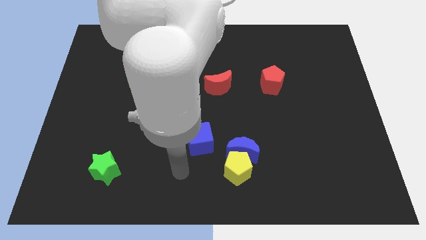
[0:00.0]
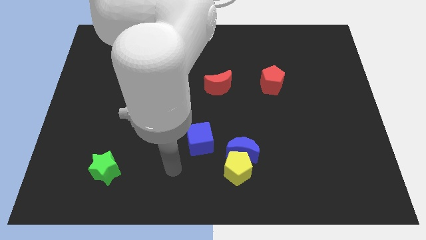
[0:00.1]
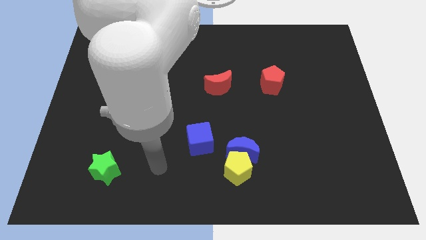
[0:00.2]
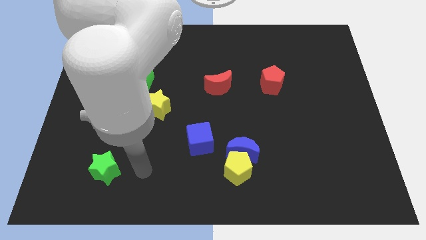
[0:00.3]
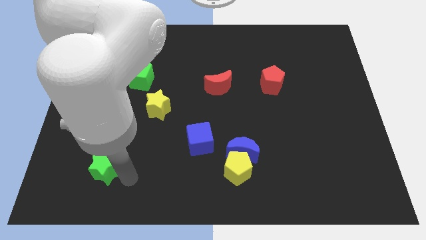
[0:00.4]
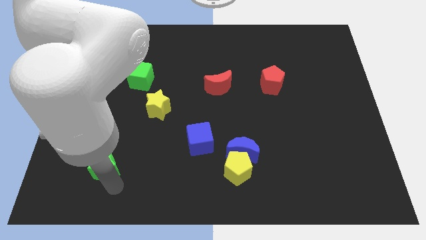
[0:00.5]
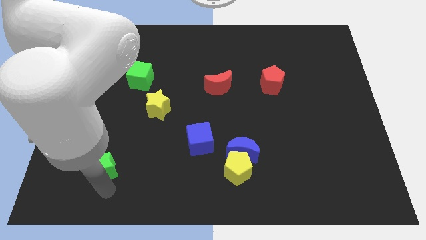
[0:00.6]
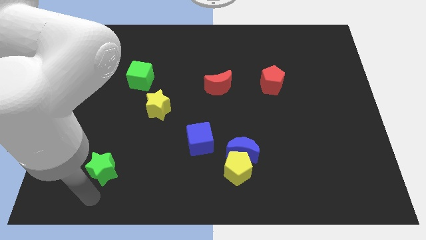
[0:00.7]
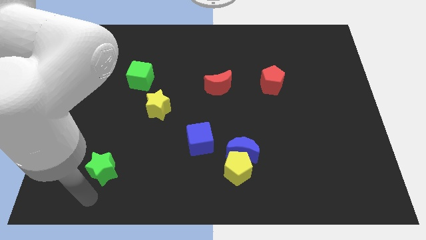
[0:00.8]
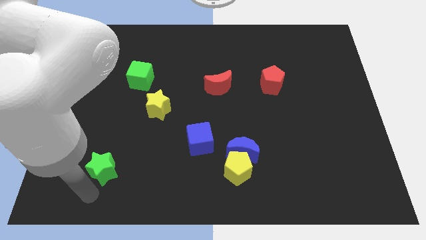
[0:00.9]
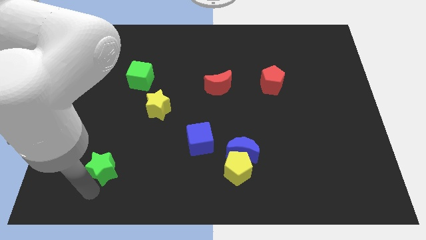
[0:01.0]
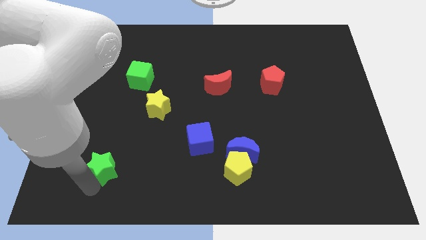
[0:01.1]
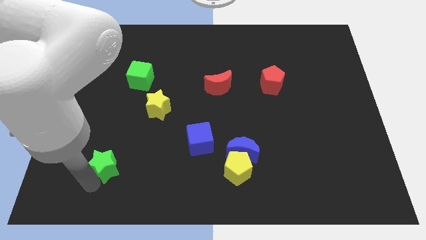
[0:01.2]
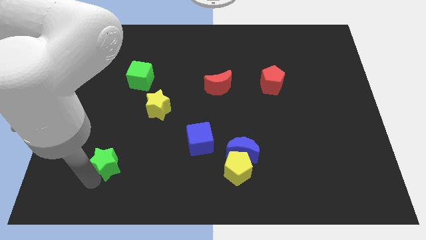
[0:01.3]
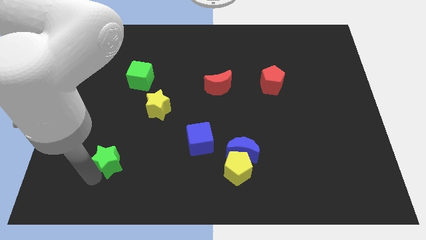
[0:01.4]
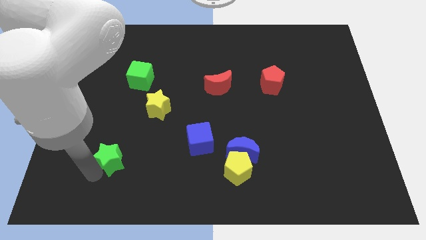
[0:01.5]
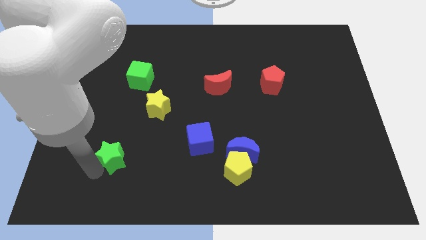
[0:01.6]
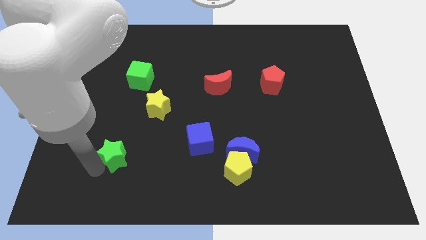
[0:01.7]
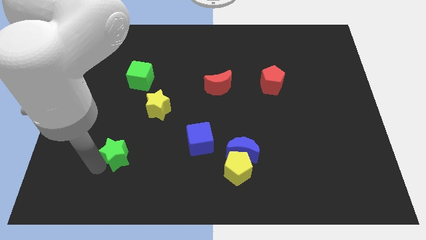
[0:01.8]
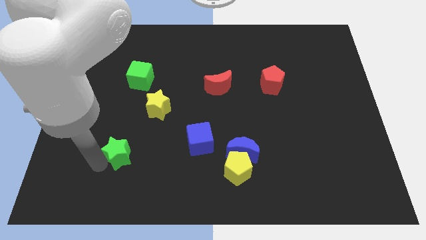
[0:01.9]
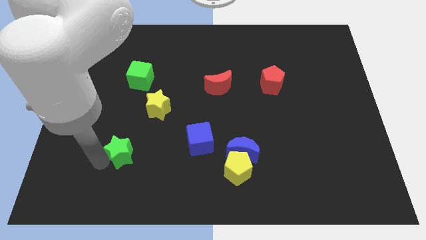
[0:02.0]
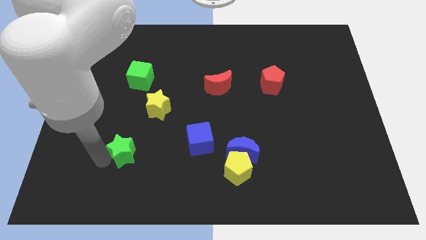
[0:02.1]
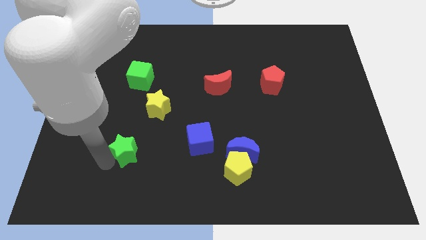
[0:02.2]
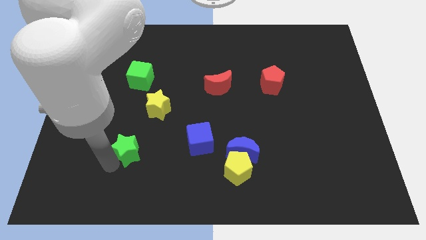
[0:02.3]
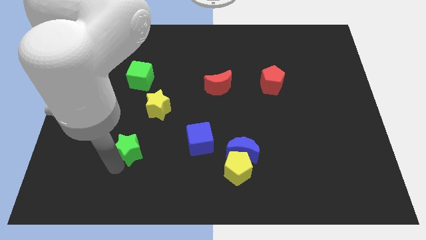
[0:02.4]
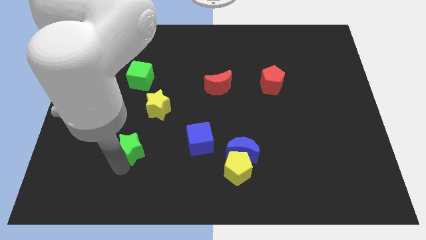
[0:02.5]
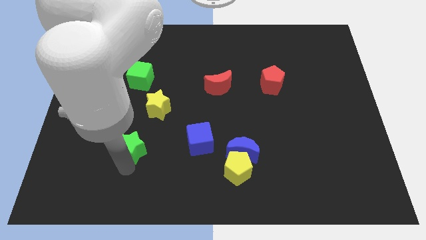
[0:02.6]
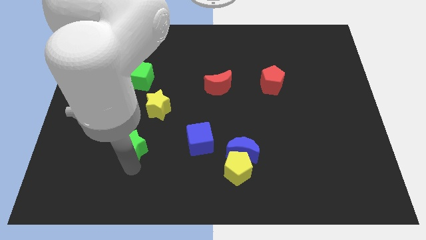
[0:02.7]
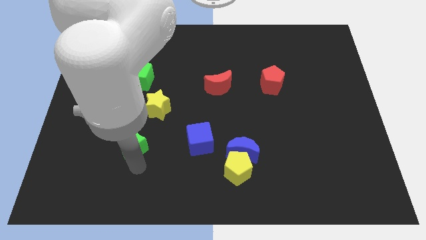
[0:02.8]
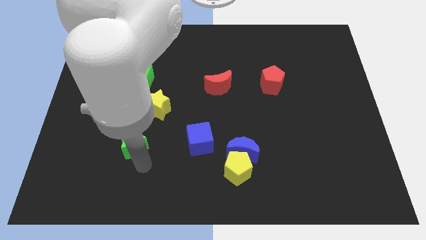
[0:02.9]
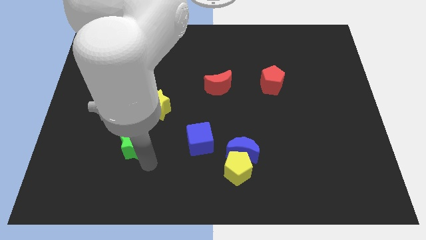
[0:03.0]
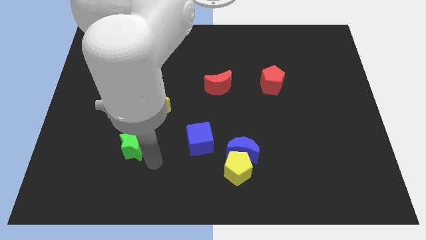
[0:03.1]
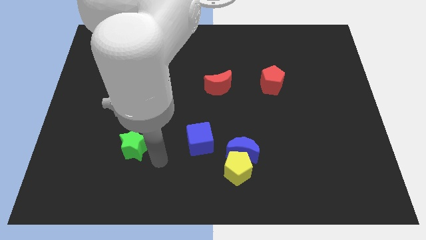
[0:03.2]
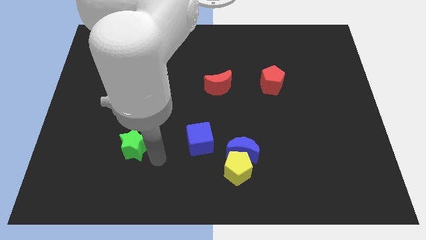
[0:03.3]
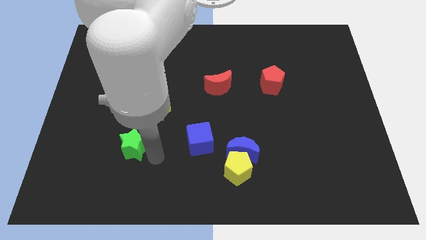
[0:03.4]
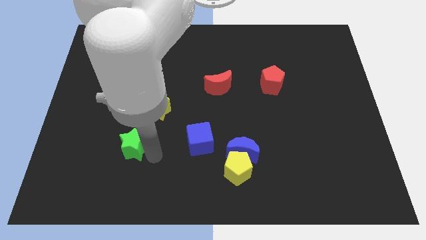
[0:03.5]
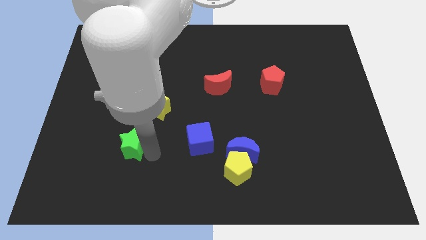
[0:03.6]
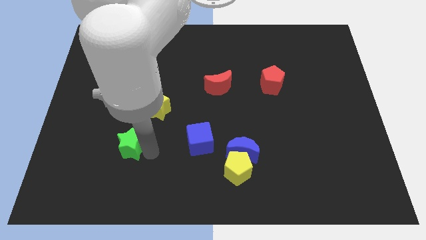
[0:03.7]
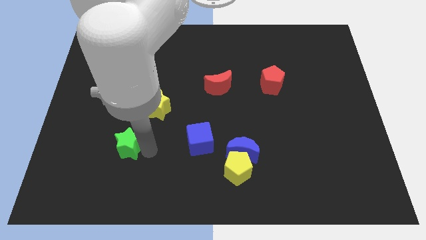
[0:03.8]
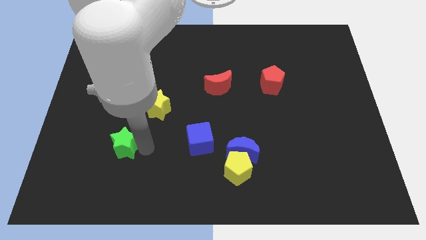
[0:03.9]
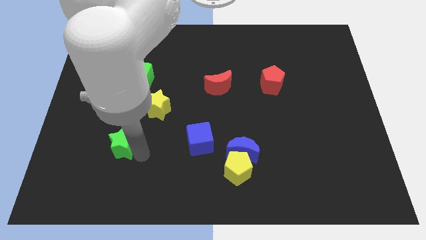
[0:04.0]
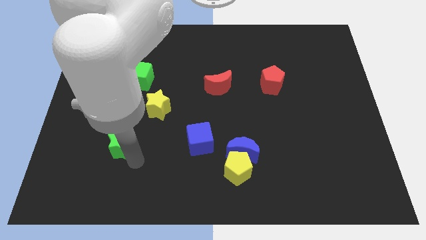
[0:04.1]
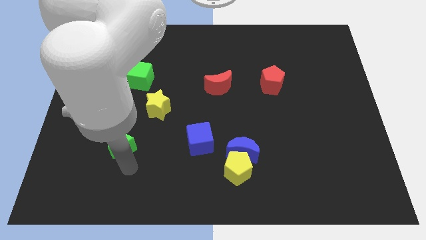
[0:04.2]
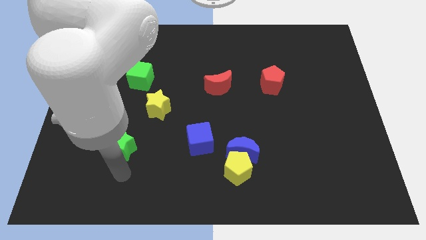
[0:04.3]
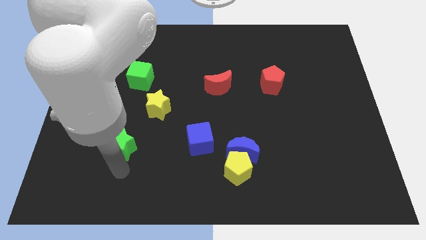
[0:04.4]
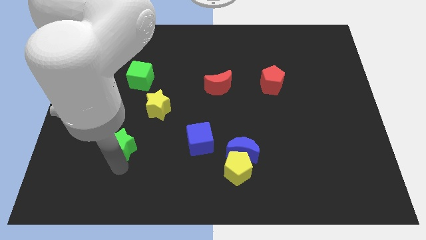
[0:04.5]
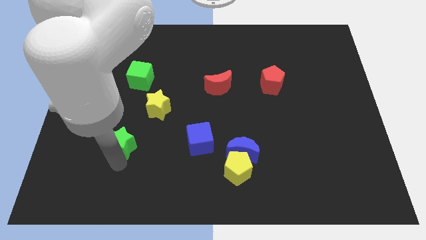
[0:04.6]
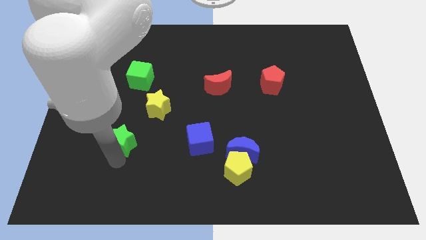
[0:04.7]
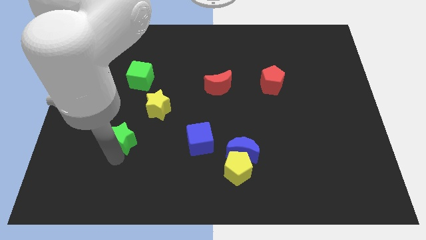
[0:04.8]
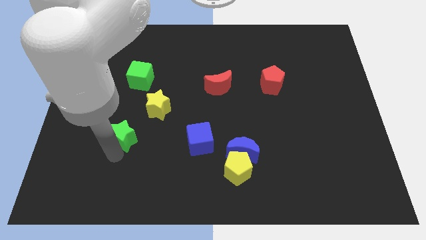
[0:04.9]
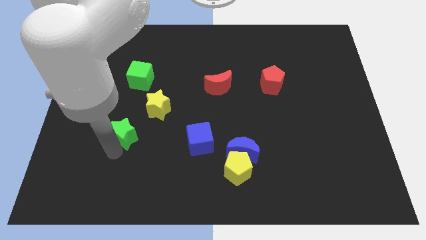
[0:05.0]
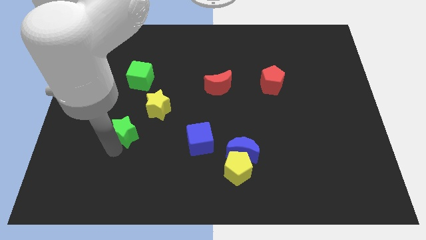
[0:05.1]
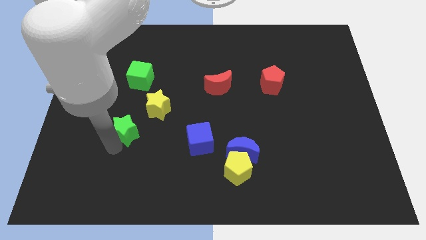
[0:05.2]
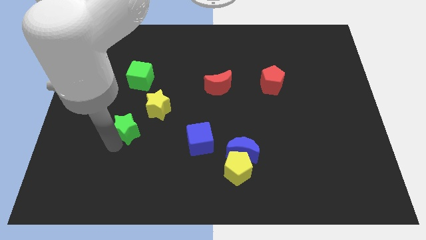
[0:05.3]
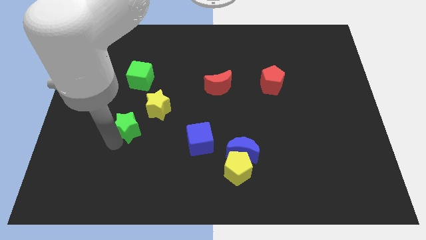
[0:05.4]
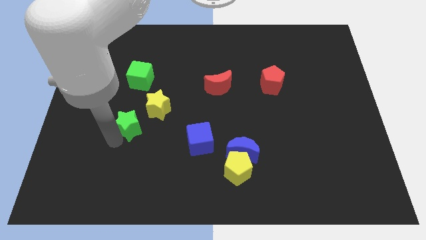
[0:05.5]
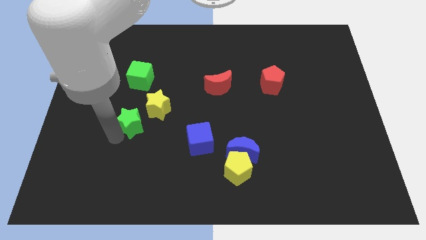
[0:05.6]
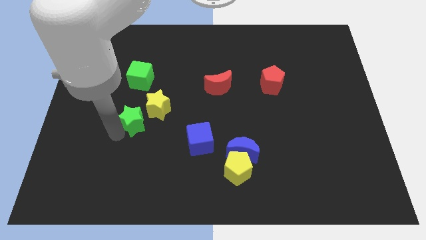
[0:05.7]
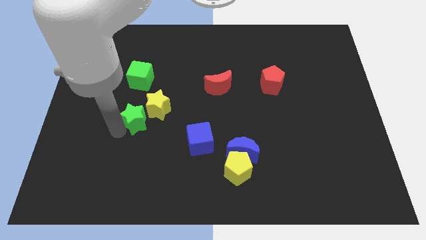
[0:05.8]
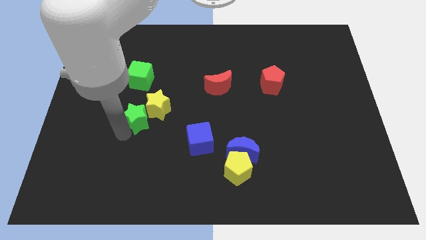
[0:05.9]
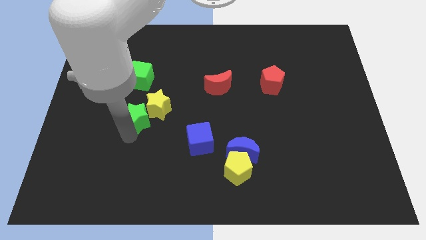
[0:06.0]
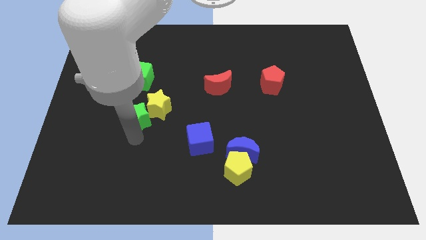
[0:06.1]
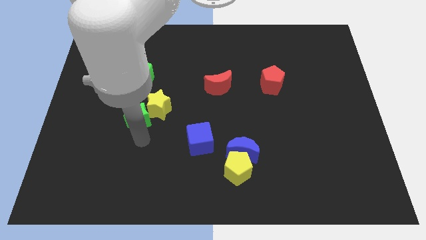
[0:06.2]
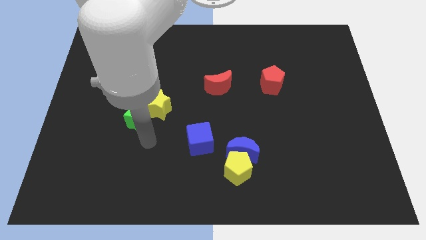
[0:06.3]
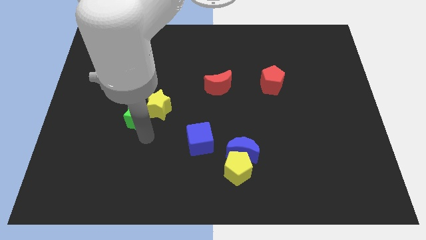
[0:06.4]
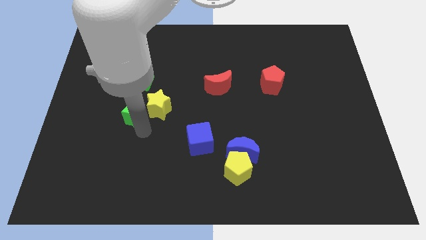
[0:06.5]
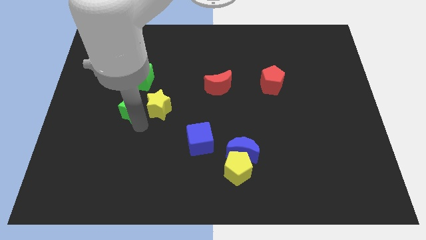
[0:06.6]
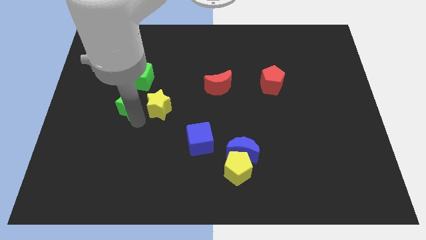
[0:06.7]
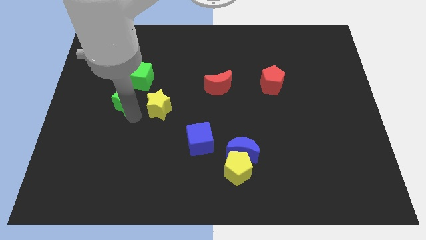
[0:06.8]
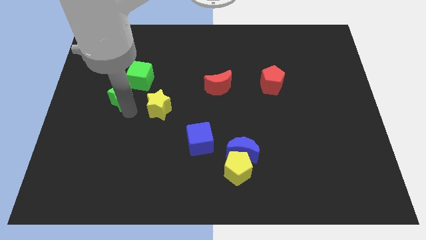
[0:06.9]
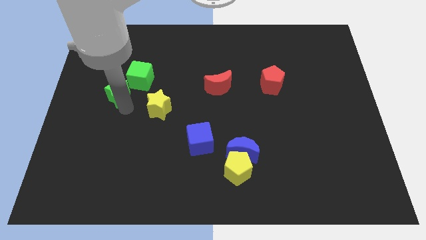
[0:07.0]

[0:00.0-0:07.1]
move the green star up

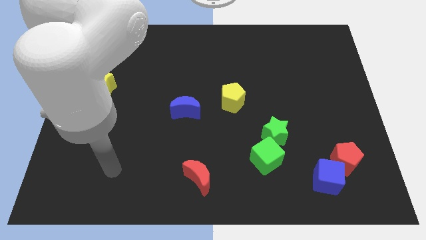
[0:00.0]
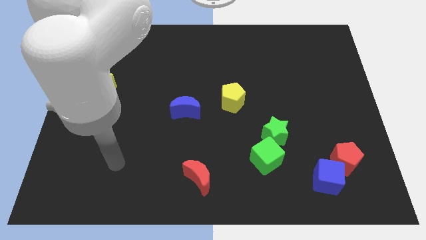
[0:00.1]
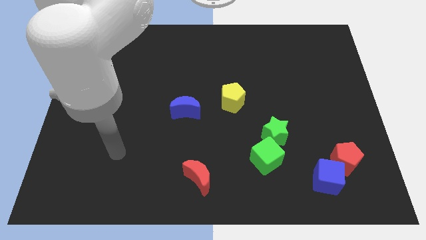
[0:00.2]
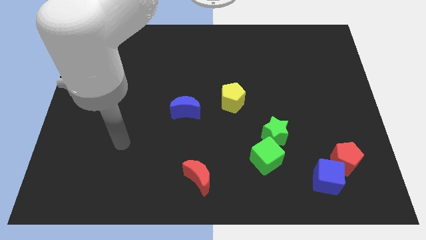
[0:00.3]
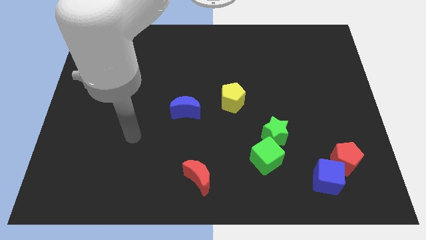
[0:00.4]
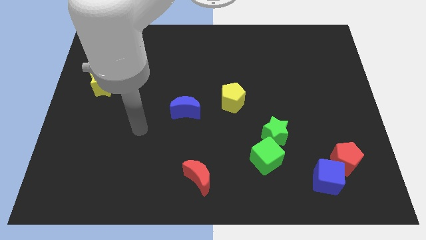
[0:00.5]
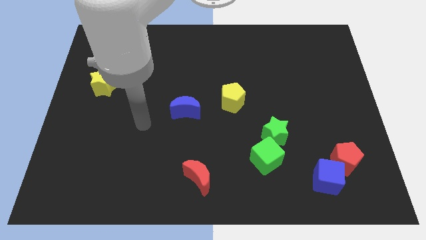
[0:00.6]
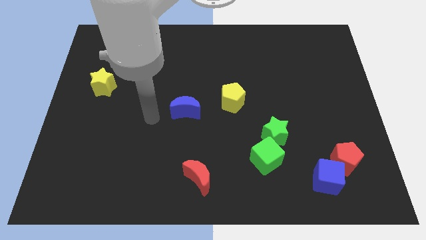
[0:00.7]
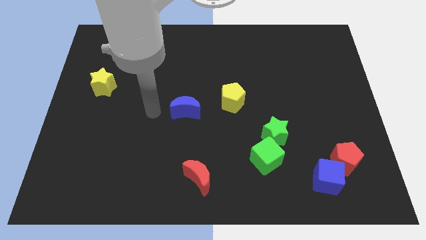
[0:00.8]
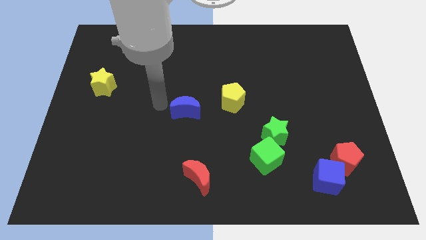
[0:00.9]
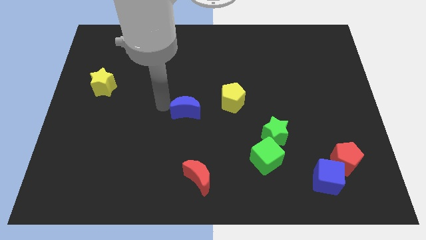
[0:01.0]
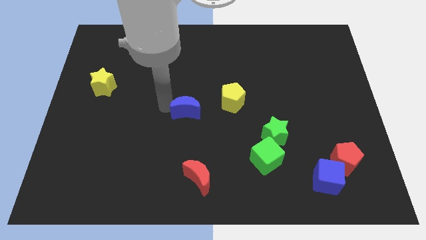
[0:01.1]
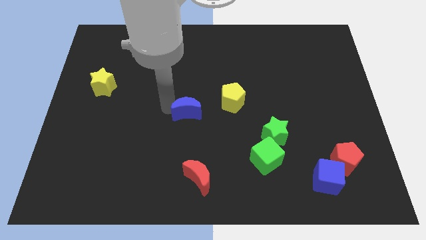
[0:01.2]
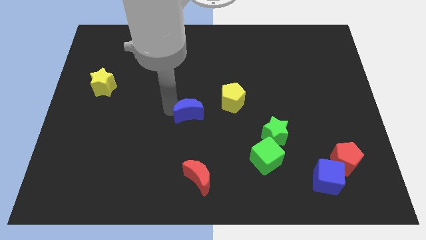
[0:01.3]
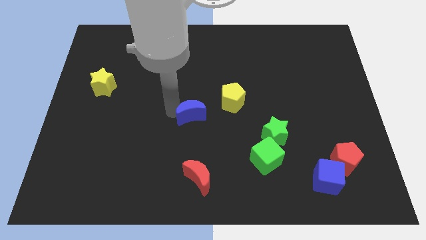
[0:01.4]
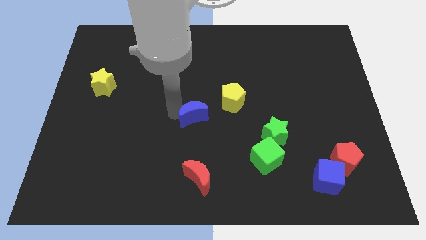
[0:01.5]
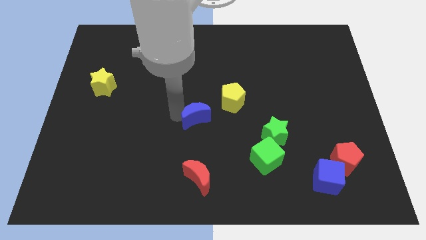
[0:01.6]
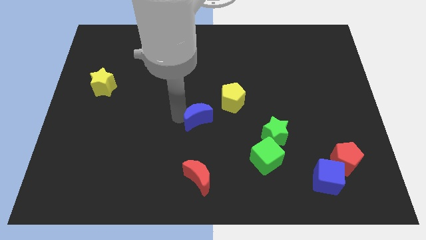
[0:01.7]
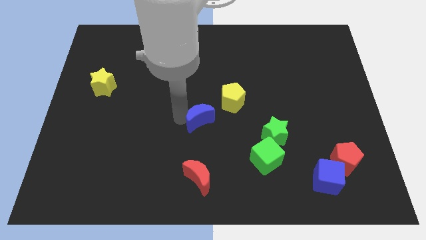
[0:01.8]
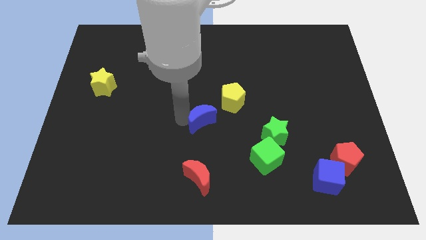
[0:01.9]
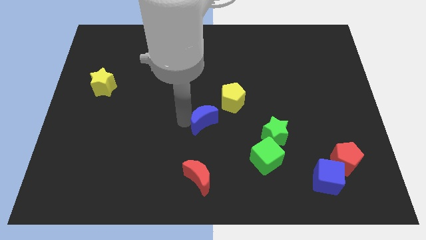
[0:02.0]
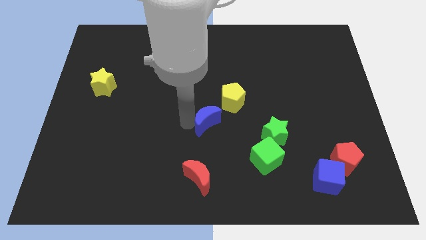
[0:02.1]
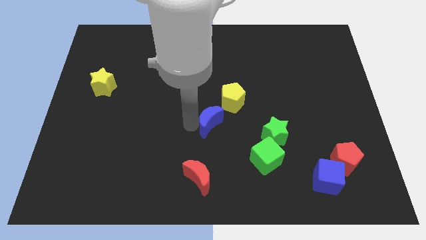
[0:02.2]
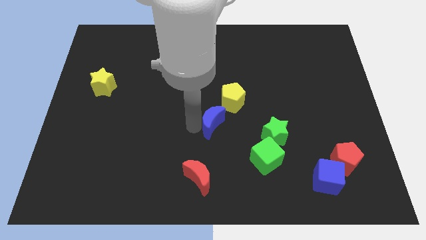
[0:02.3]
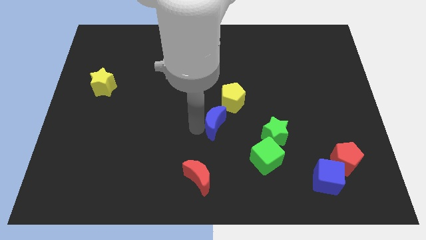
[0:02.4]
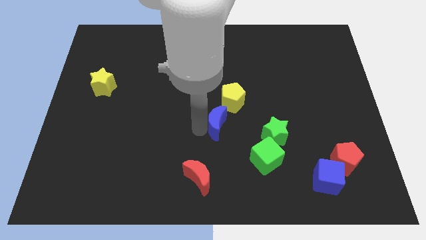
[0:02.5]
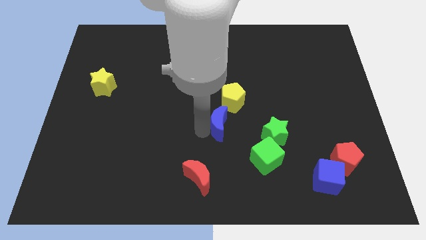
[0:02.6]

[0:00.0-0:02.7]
slide the blue moon a little bit to the right
